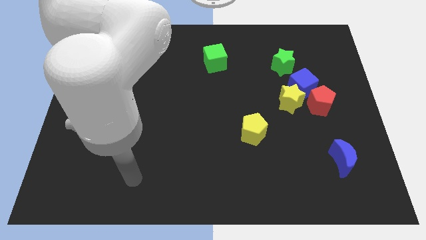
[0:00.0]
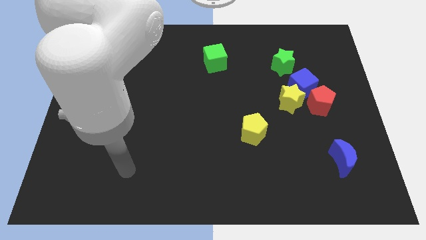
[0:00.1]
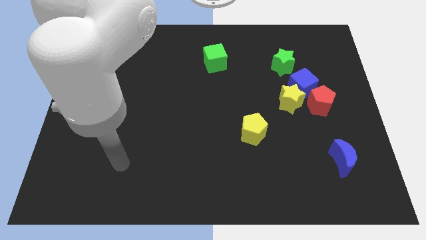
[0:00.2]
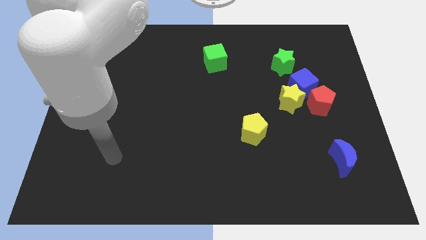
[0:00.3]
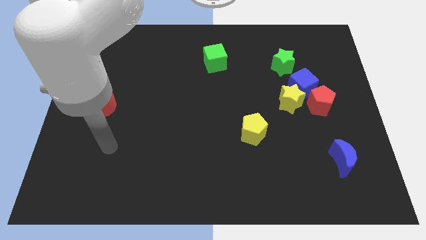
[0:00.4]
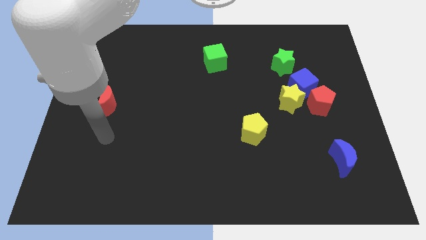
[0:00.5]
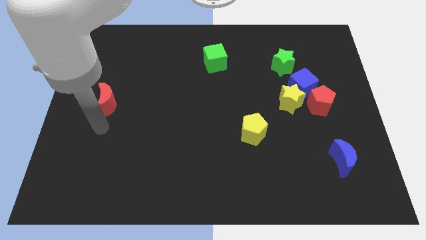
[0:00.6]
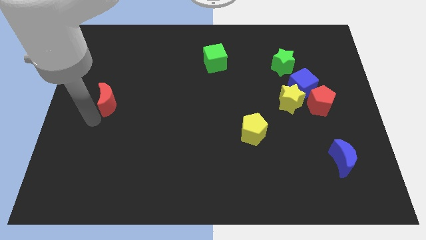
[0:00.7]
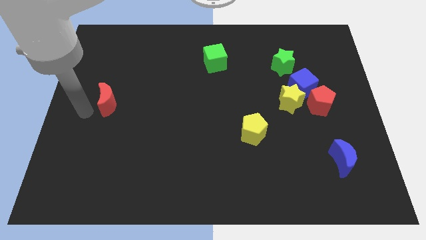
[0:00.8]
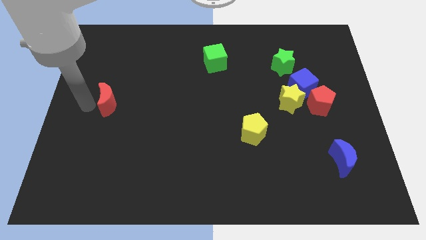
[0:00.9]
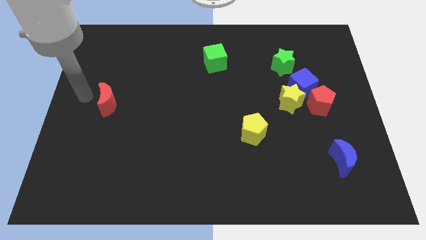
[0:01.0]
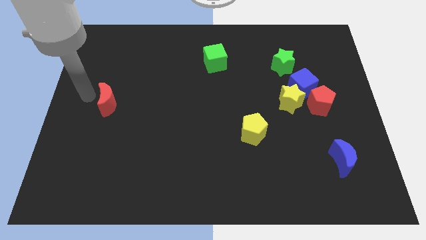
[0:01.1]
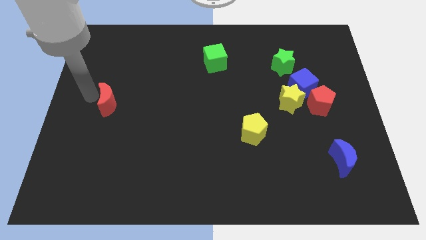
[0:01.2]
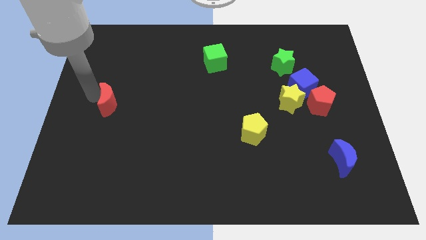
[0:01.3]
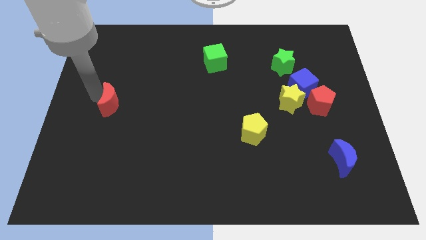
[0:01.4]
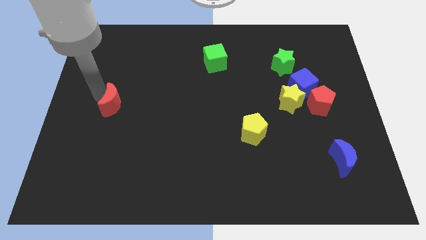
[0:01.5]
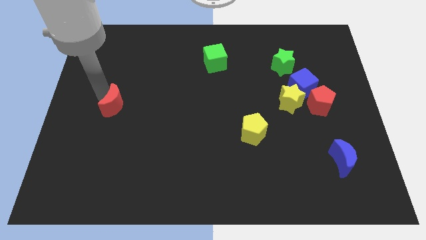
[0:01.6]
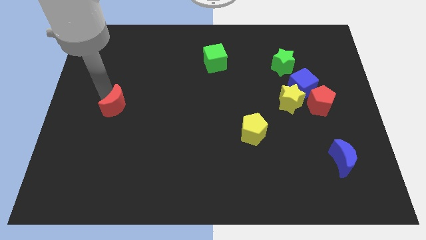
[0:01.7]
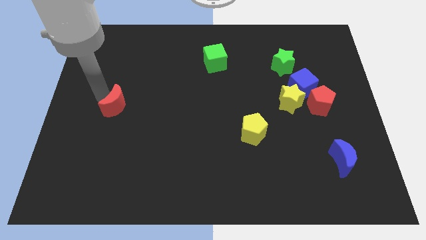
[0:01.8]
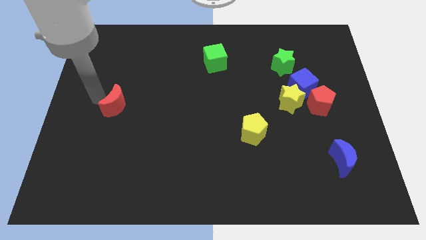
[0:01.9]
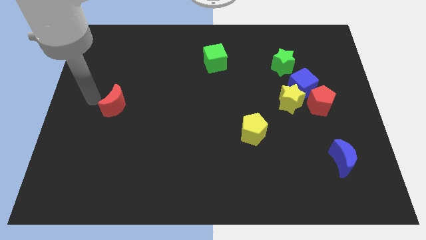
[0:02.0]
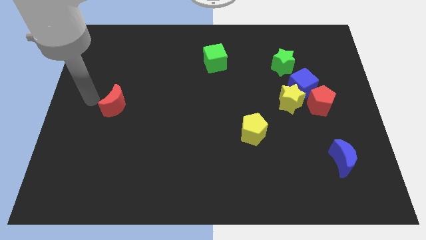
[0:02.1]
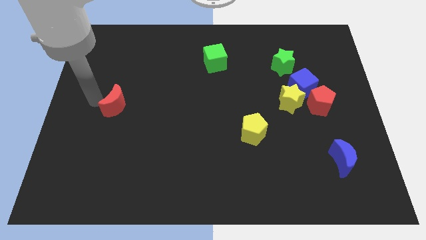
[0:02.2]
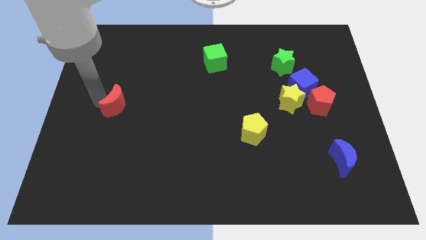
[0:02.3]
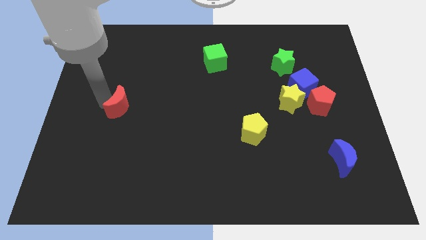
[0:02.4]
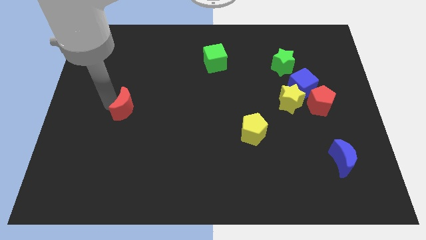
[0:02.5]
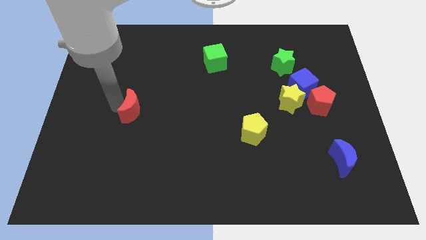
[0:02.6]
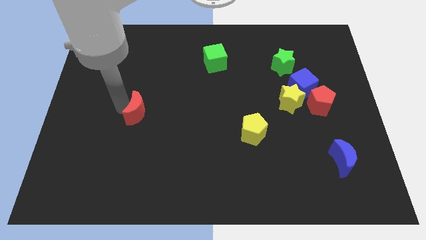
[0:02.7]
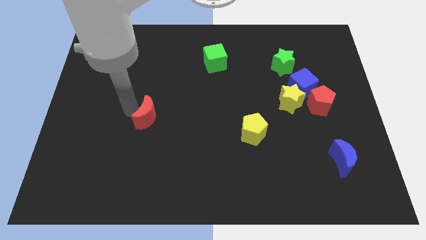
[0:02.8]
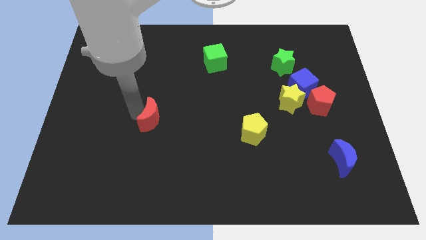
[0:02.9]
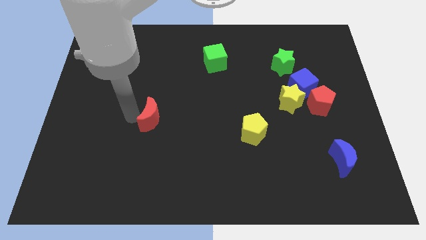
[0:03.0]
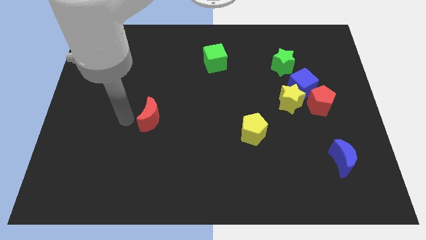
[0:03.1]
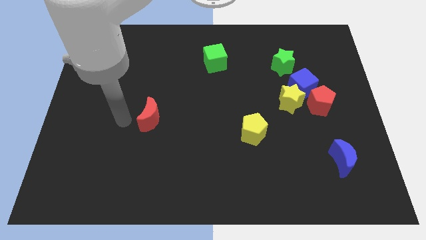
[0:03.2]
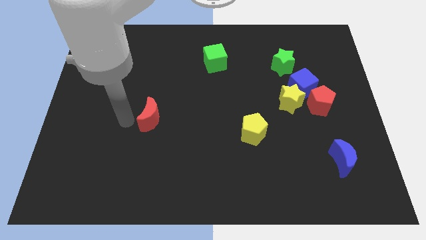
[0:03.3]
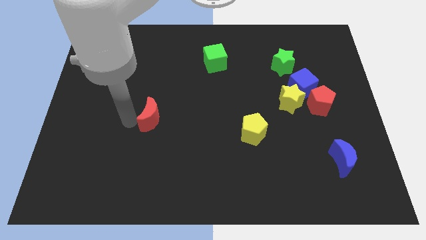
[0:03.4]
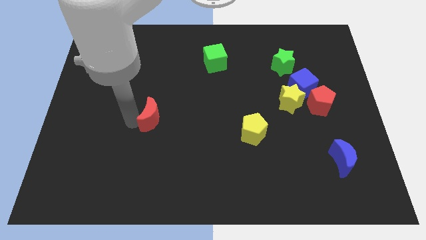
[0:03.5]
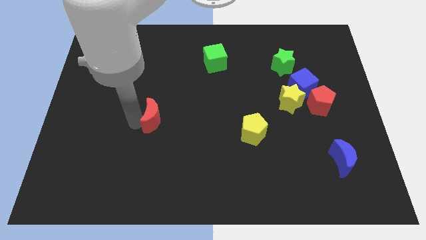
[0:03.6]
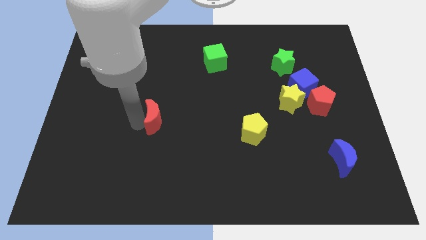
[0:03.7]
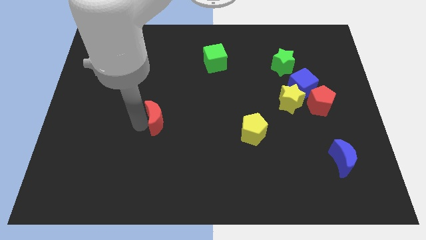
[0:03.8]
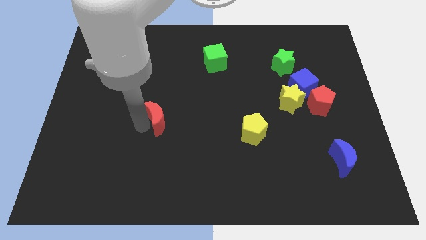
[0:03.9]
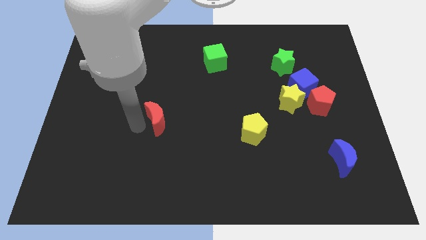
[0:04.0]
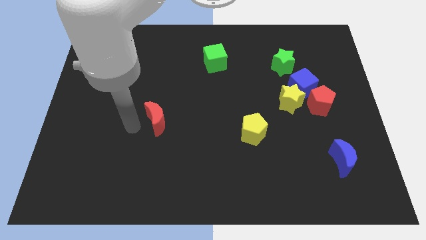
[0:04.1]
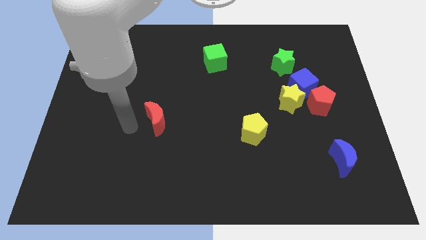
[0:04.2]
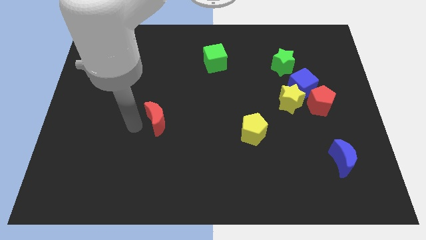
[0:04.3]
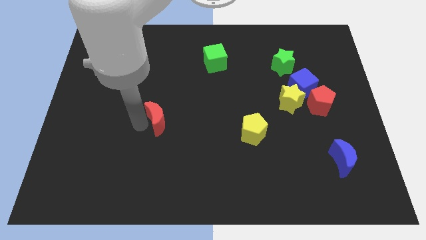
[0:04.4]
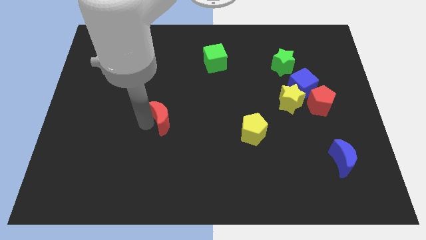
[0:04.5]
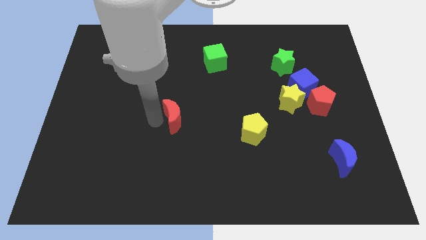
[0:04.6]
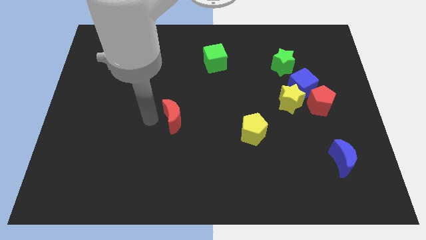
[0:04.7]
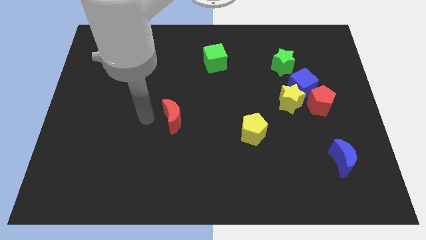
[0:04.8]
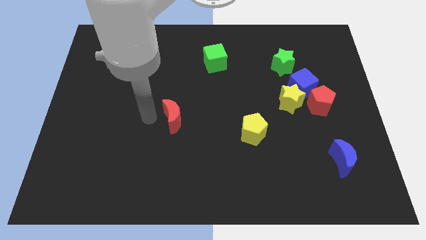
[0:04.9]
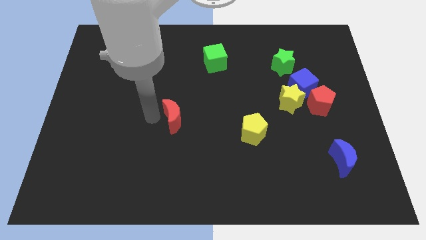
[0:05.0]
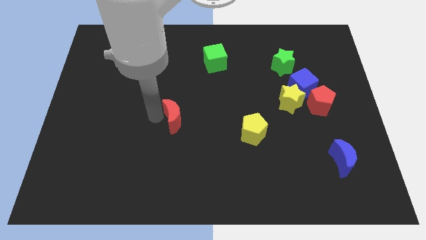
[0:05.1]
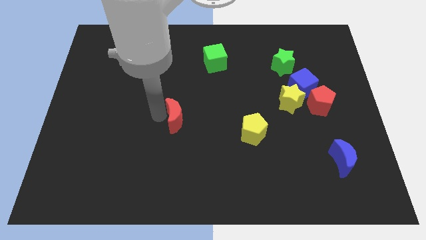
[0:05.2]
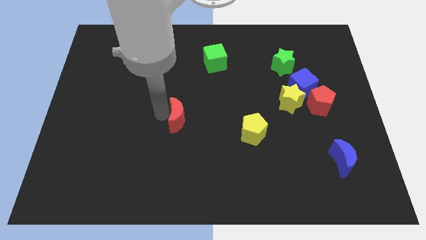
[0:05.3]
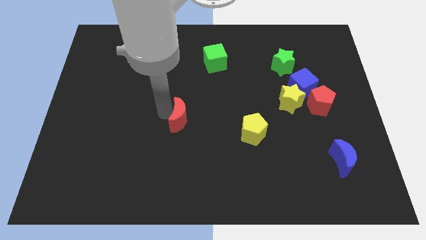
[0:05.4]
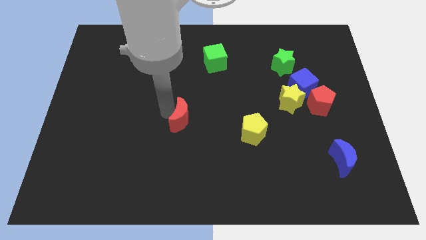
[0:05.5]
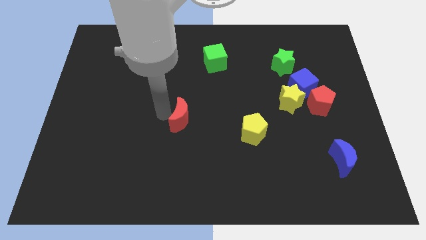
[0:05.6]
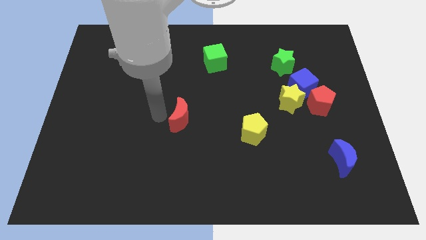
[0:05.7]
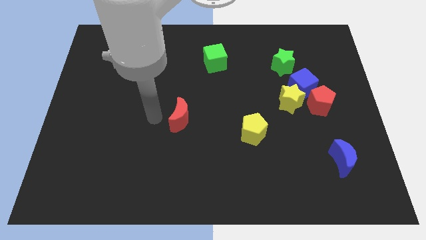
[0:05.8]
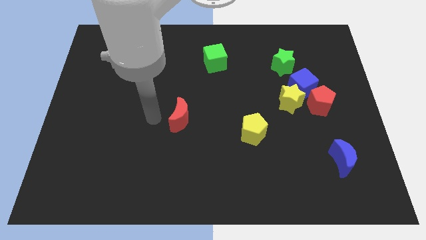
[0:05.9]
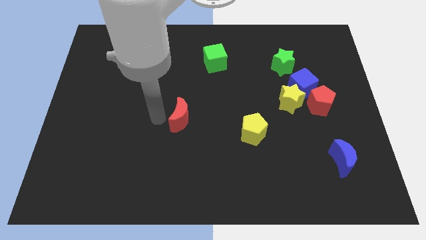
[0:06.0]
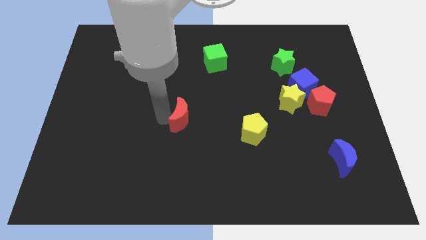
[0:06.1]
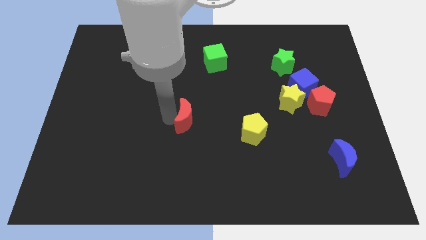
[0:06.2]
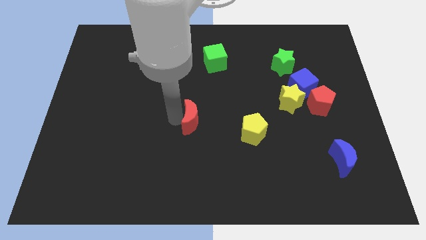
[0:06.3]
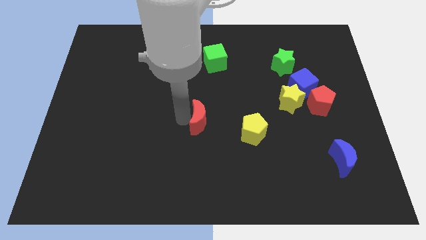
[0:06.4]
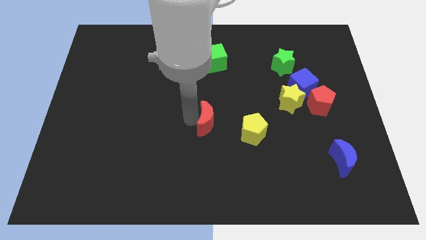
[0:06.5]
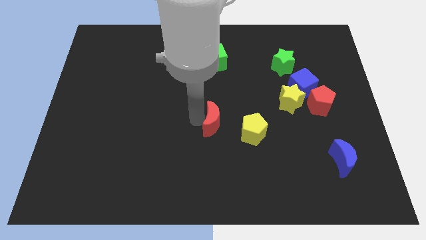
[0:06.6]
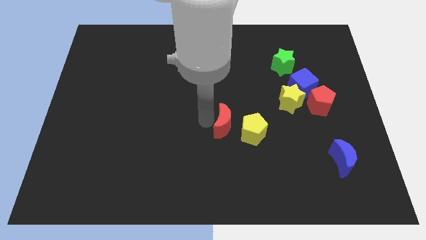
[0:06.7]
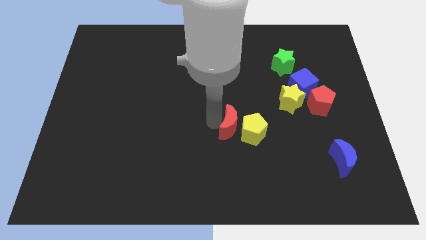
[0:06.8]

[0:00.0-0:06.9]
move the red moon towards the yellow pentagon

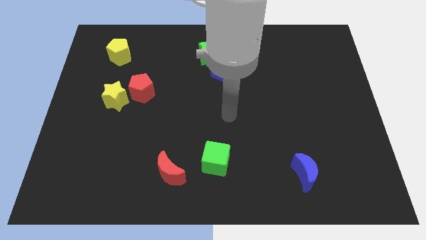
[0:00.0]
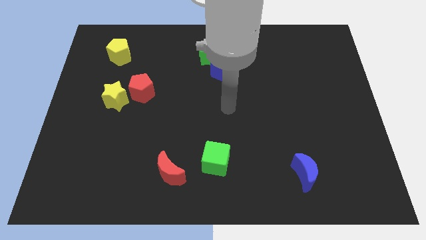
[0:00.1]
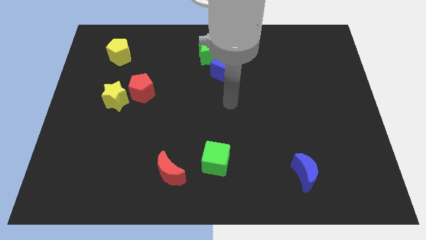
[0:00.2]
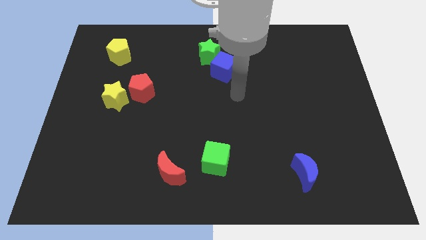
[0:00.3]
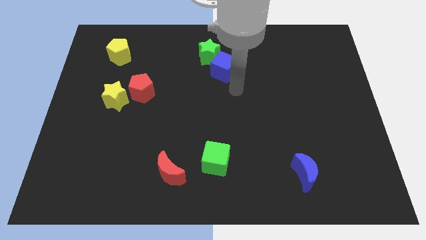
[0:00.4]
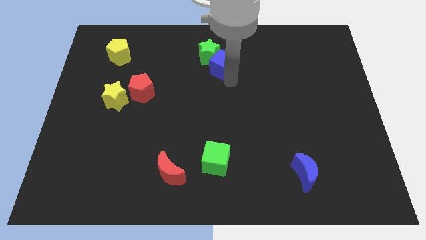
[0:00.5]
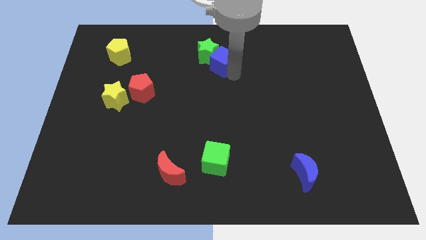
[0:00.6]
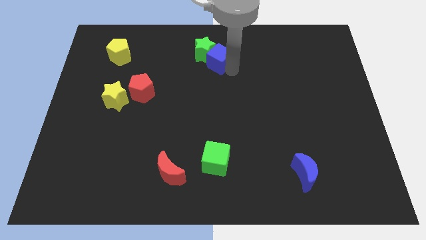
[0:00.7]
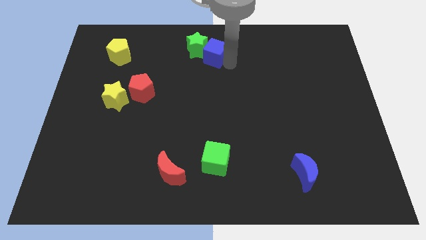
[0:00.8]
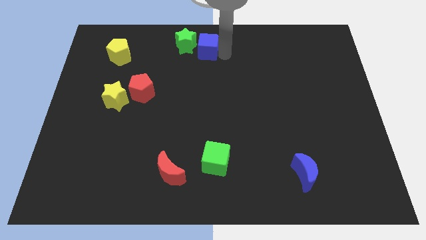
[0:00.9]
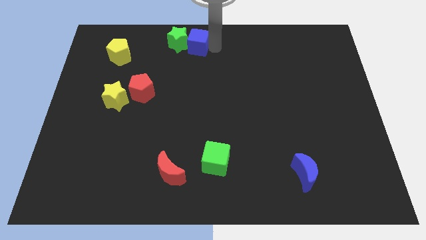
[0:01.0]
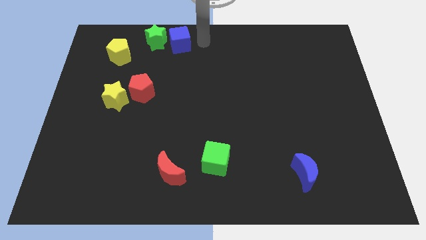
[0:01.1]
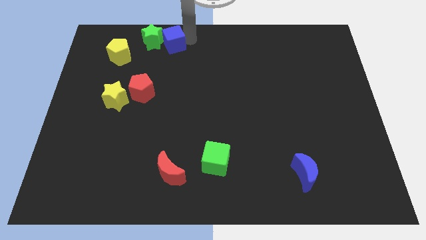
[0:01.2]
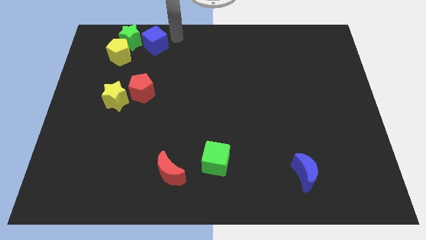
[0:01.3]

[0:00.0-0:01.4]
move the green star next to the yellow pentagon
